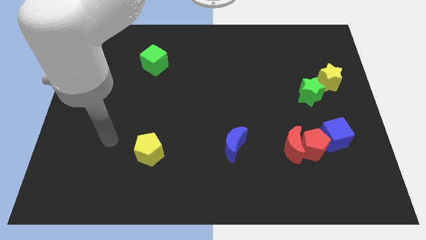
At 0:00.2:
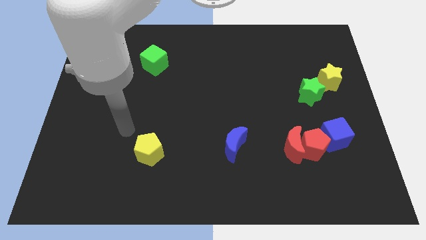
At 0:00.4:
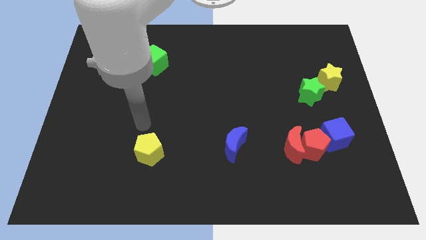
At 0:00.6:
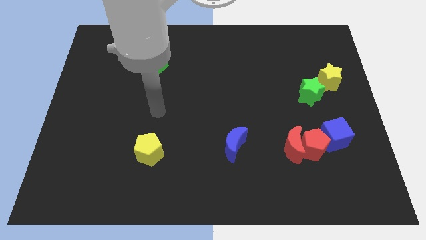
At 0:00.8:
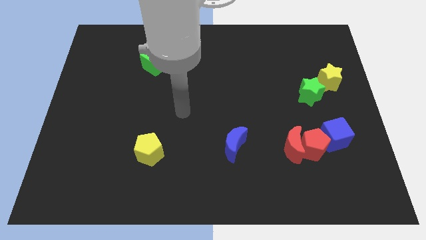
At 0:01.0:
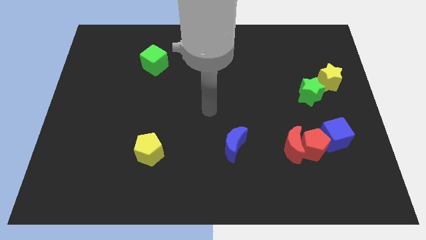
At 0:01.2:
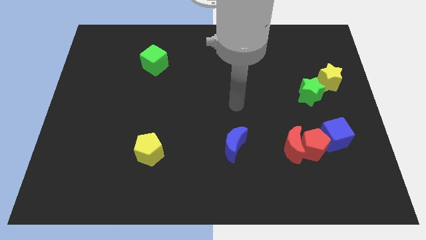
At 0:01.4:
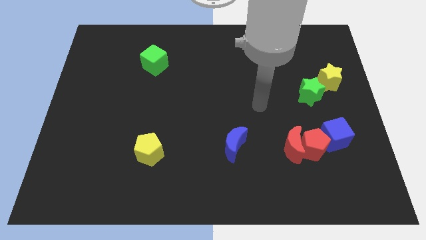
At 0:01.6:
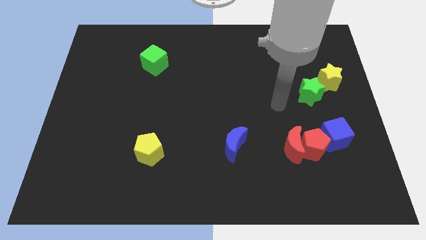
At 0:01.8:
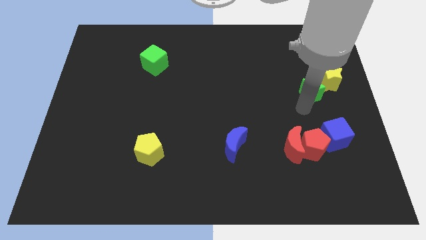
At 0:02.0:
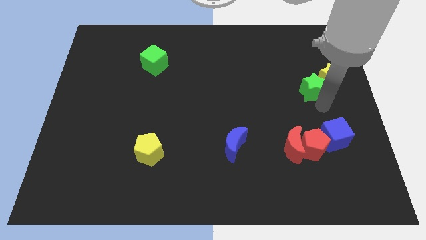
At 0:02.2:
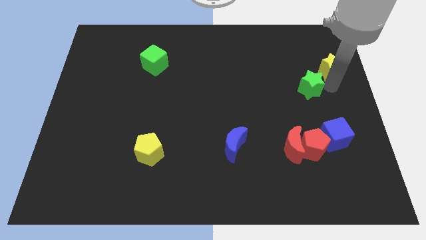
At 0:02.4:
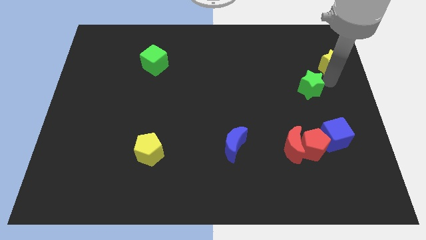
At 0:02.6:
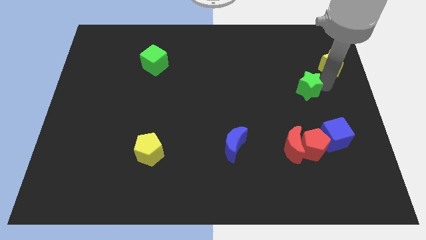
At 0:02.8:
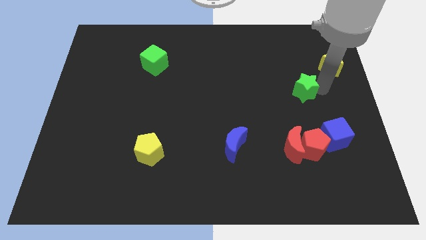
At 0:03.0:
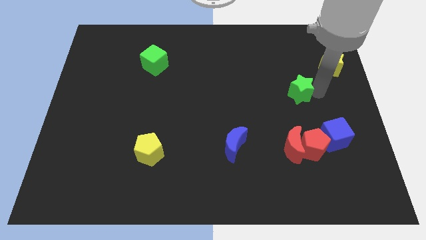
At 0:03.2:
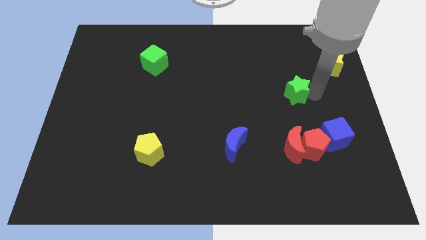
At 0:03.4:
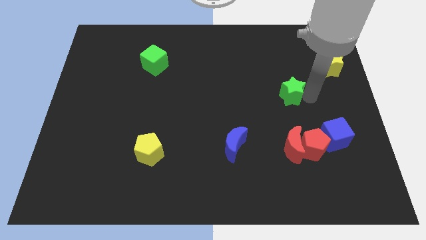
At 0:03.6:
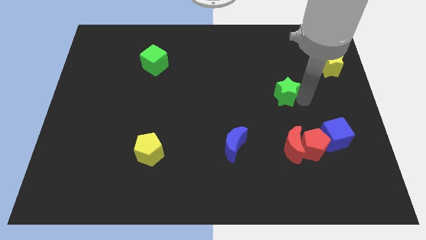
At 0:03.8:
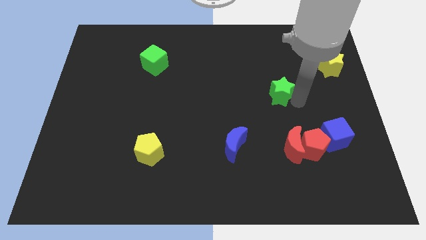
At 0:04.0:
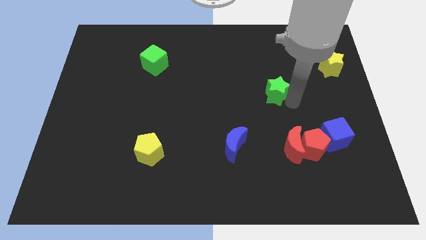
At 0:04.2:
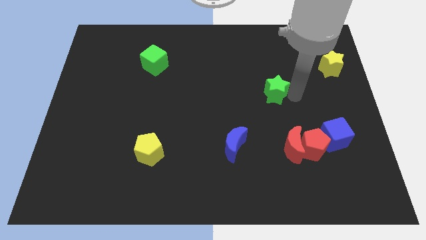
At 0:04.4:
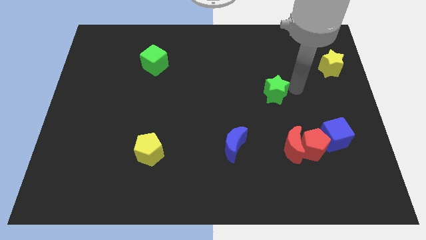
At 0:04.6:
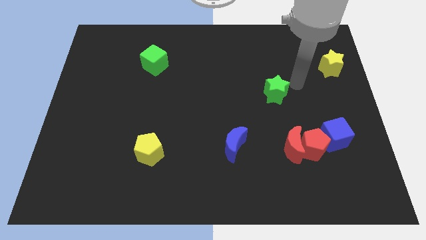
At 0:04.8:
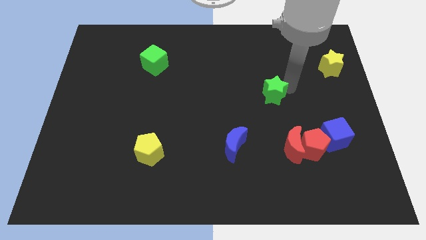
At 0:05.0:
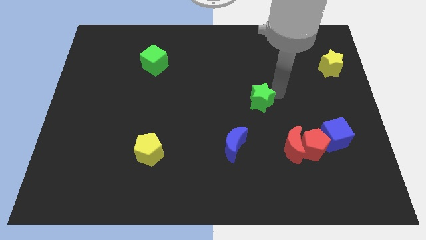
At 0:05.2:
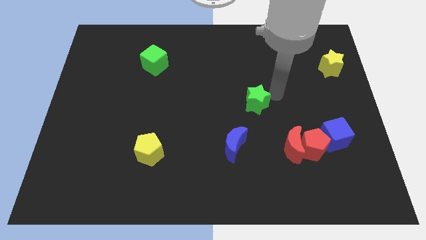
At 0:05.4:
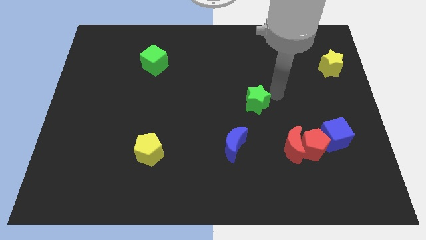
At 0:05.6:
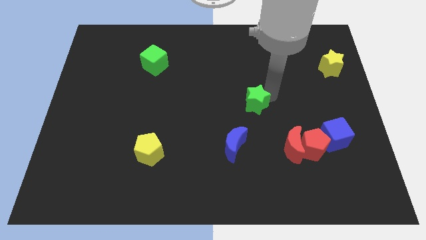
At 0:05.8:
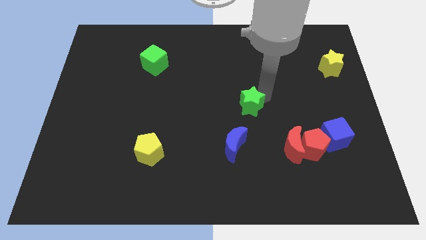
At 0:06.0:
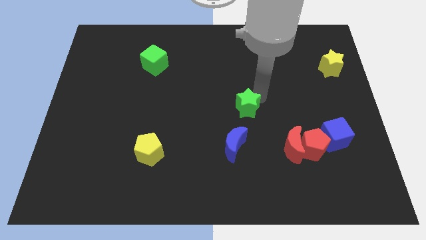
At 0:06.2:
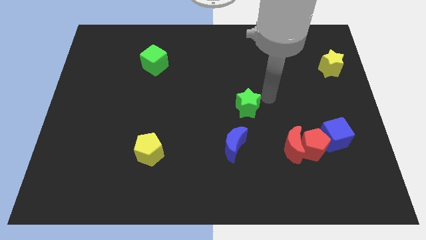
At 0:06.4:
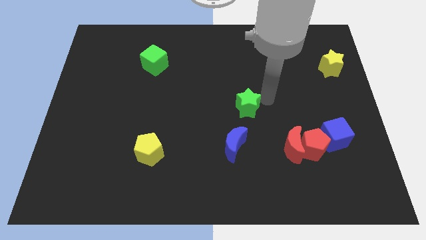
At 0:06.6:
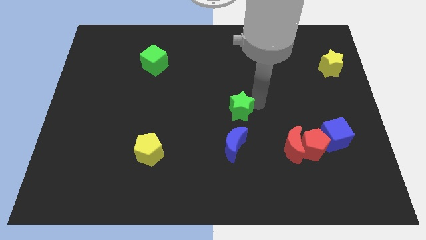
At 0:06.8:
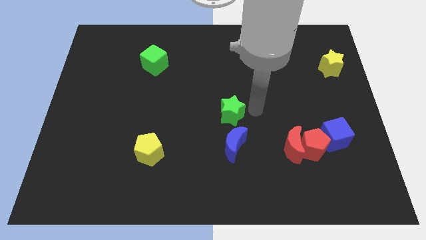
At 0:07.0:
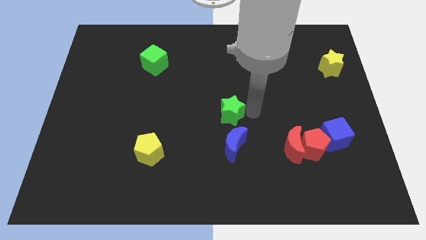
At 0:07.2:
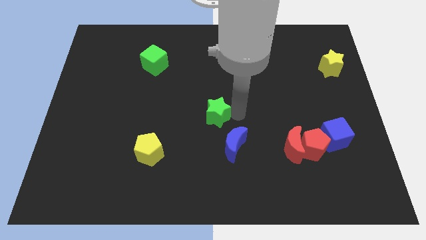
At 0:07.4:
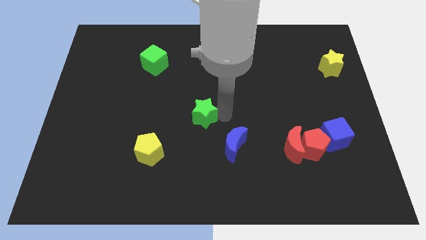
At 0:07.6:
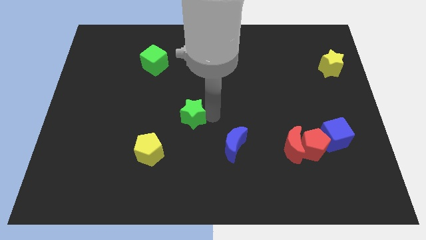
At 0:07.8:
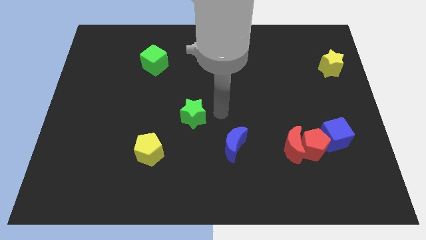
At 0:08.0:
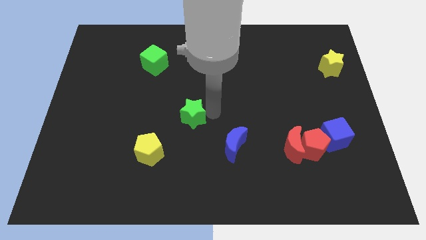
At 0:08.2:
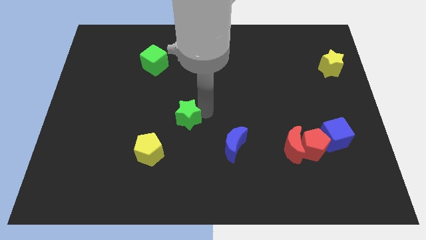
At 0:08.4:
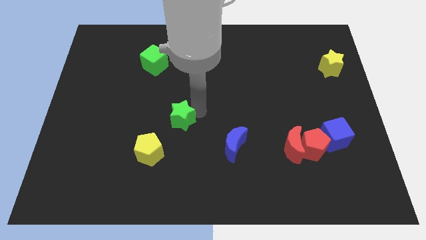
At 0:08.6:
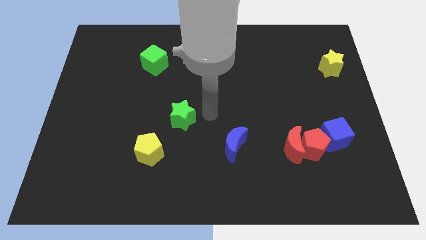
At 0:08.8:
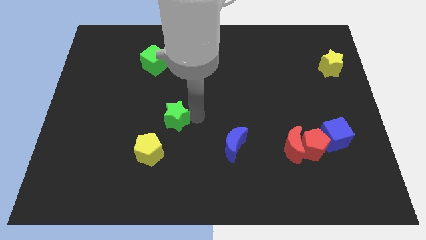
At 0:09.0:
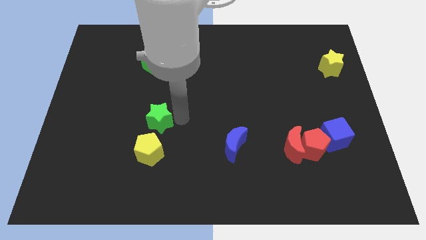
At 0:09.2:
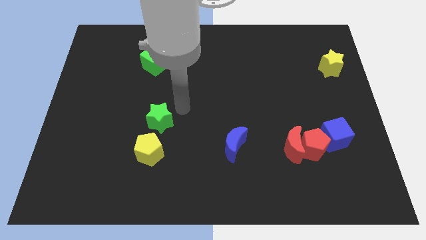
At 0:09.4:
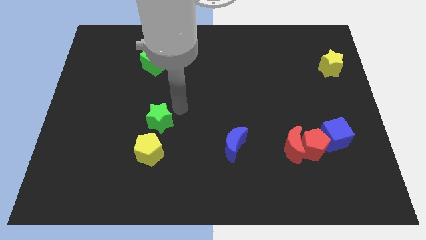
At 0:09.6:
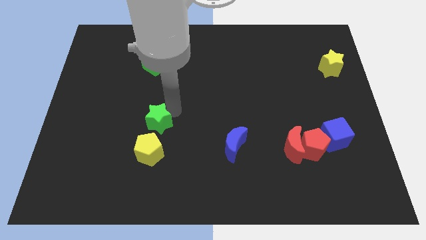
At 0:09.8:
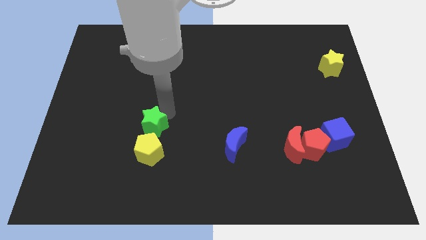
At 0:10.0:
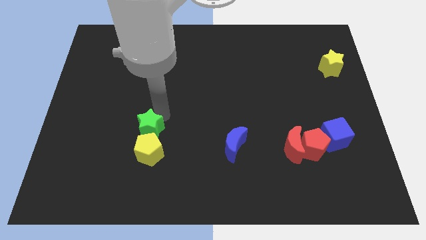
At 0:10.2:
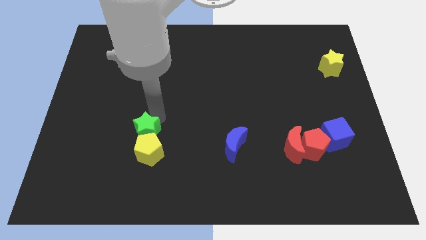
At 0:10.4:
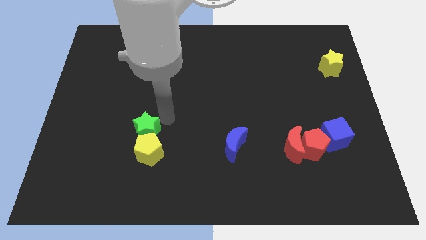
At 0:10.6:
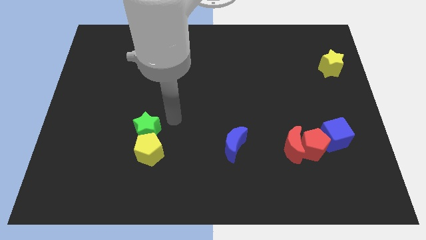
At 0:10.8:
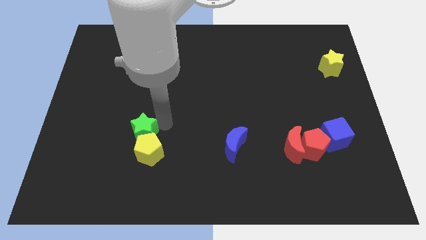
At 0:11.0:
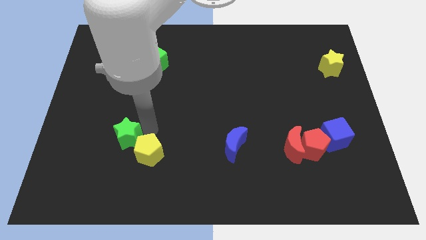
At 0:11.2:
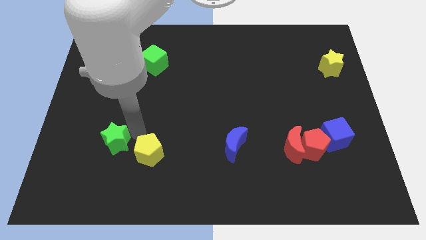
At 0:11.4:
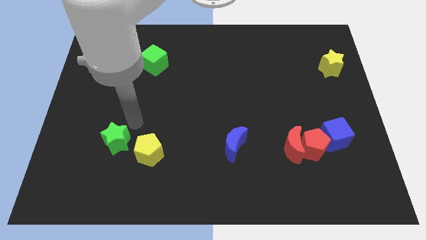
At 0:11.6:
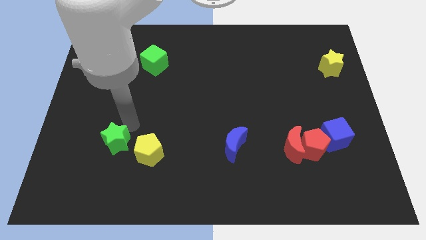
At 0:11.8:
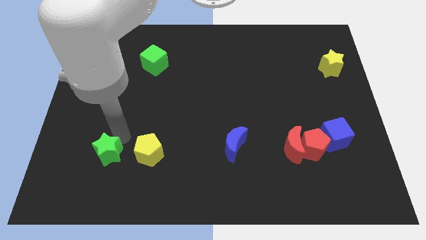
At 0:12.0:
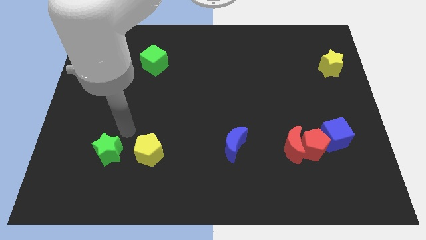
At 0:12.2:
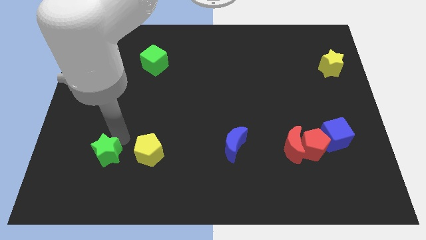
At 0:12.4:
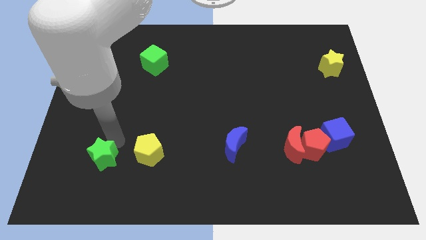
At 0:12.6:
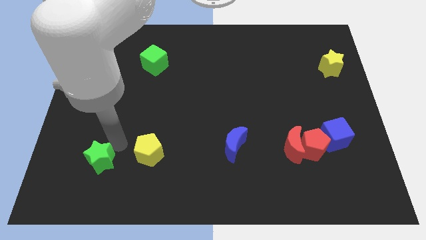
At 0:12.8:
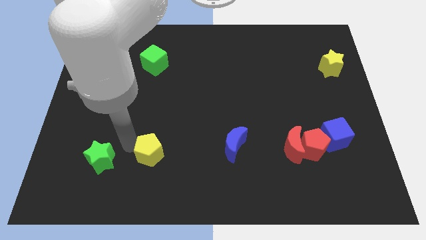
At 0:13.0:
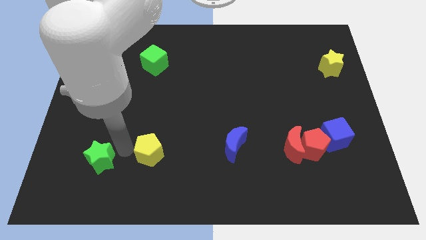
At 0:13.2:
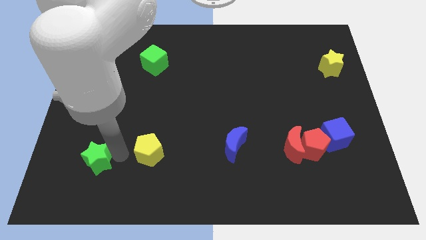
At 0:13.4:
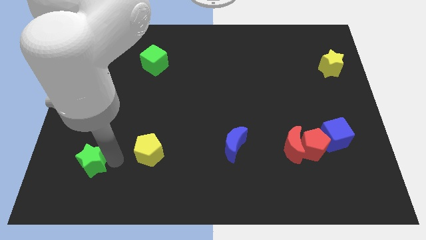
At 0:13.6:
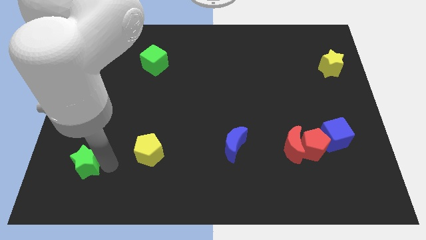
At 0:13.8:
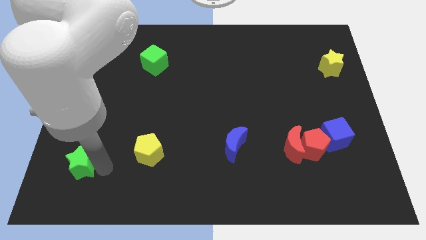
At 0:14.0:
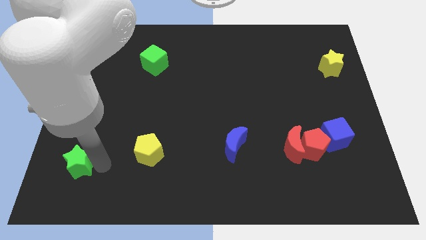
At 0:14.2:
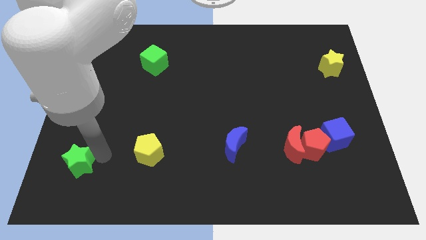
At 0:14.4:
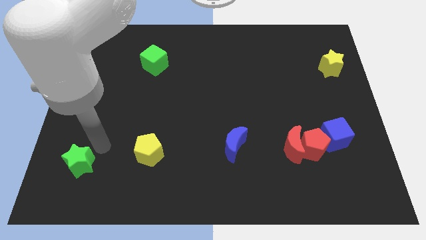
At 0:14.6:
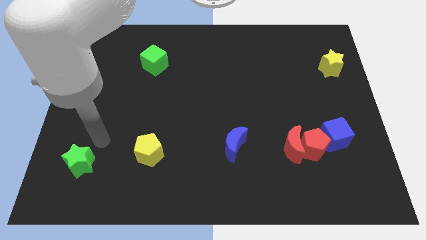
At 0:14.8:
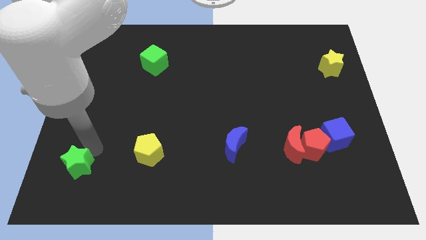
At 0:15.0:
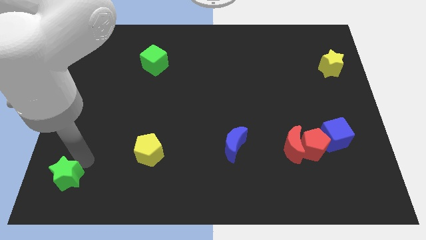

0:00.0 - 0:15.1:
move the green star to the bottom left corner
